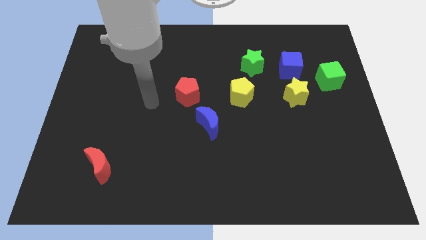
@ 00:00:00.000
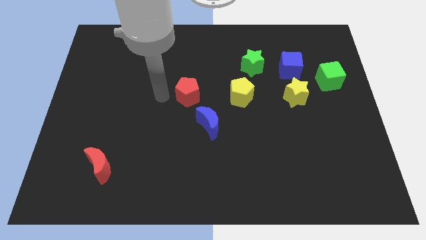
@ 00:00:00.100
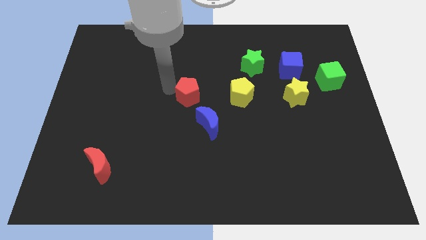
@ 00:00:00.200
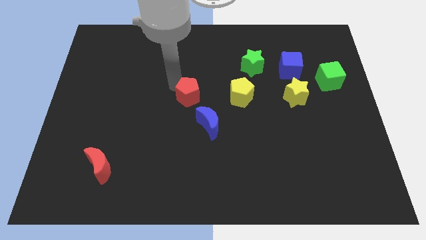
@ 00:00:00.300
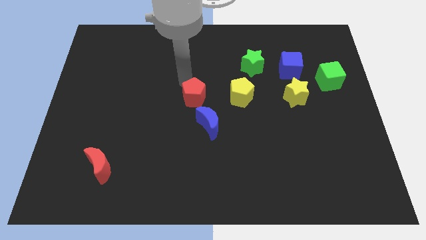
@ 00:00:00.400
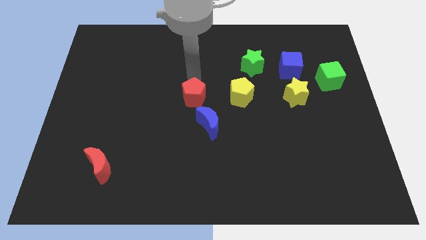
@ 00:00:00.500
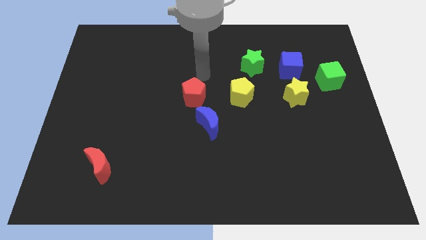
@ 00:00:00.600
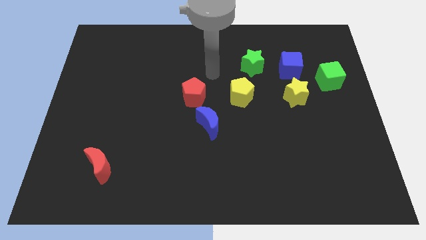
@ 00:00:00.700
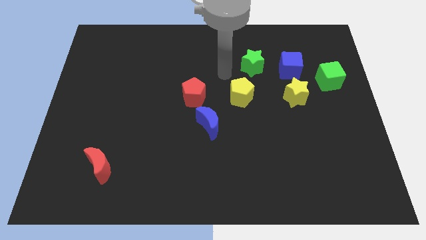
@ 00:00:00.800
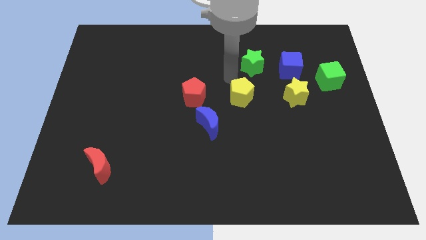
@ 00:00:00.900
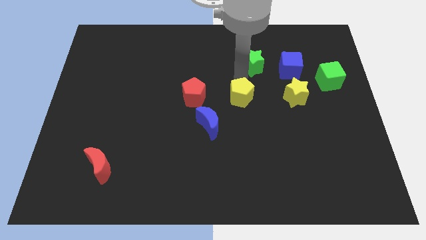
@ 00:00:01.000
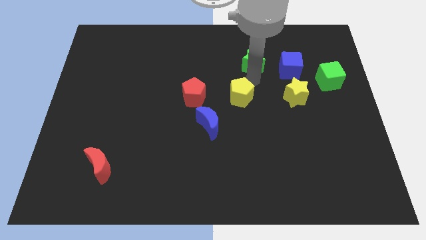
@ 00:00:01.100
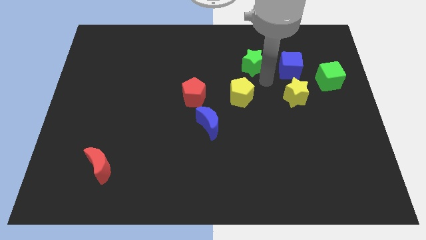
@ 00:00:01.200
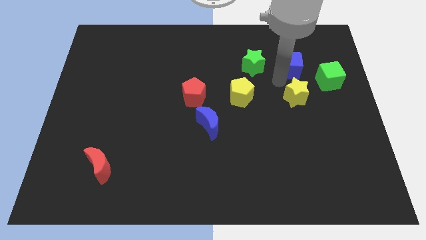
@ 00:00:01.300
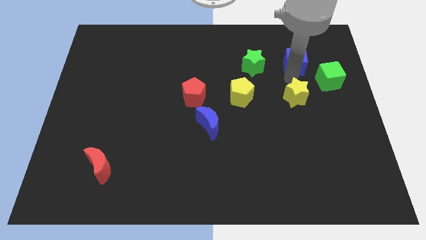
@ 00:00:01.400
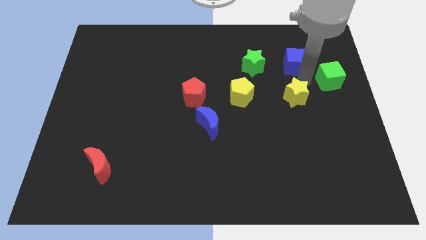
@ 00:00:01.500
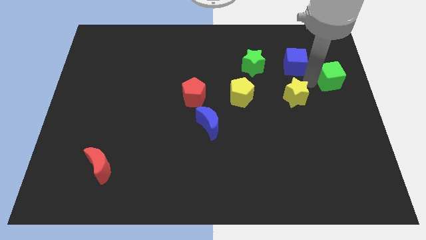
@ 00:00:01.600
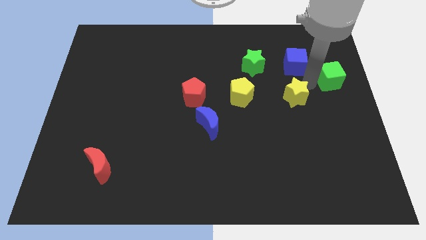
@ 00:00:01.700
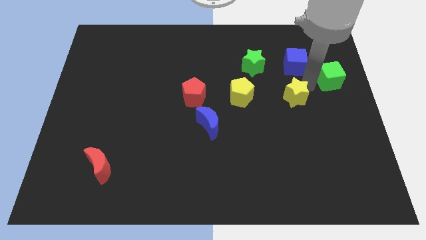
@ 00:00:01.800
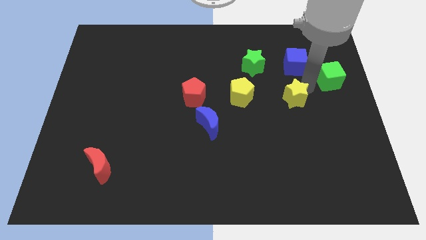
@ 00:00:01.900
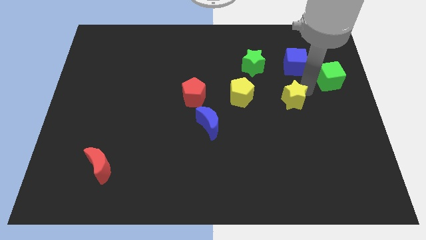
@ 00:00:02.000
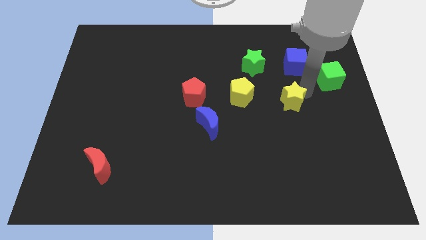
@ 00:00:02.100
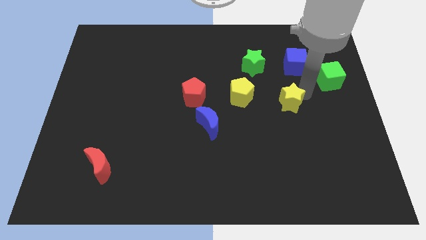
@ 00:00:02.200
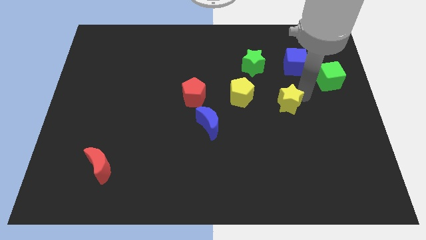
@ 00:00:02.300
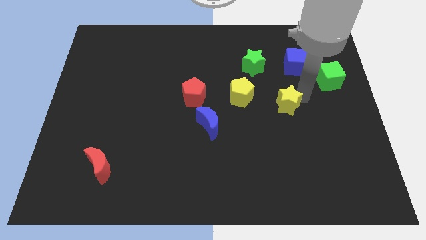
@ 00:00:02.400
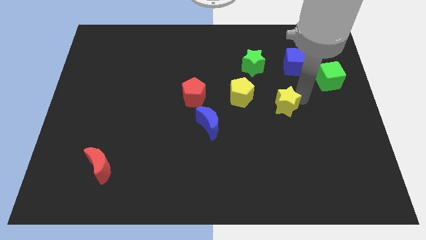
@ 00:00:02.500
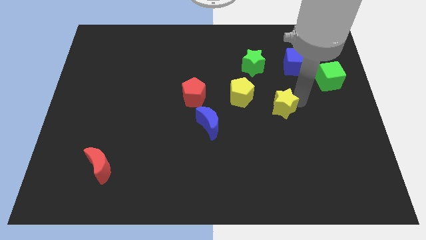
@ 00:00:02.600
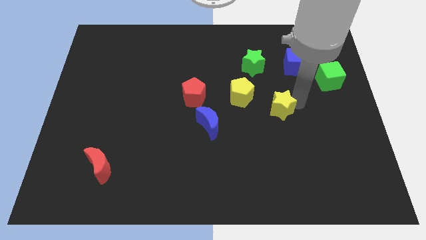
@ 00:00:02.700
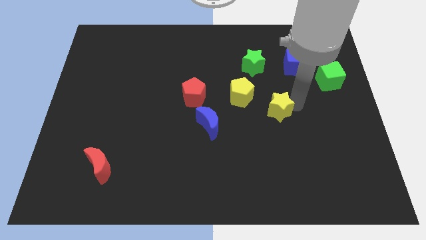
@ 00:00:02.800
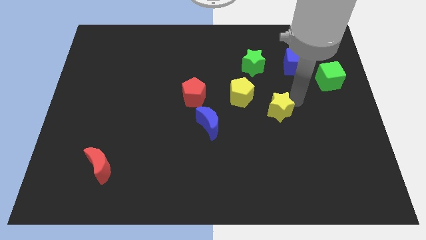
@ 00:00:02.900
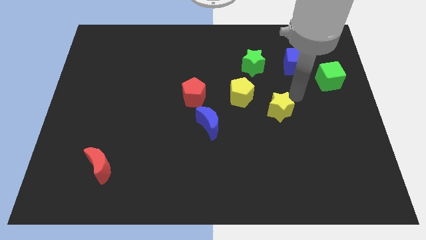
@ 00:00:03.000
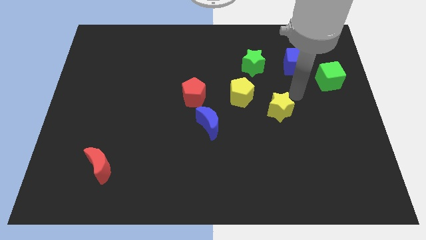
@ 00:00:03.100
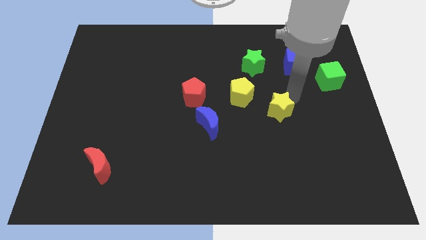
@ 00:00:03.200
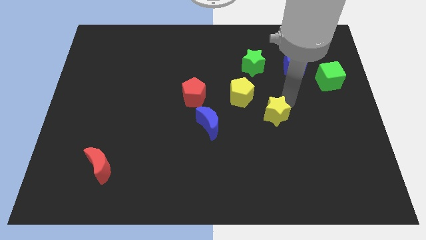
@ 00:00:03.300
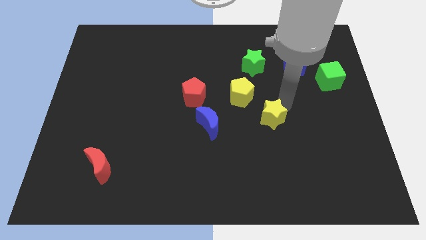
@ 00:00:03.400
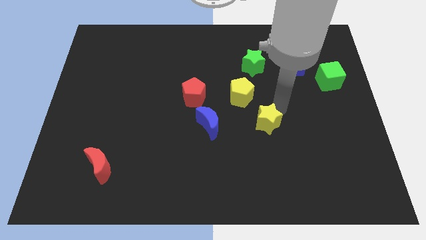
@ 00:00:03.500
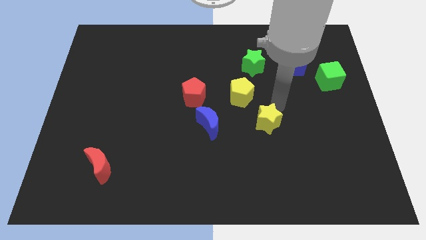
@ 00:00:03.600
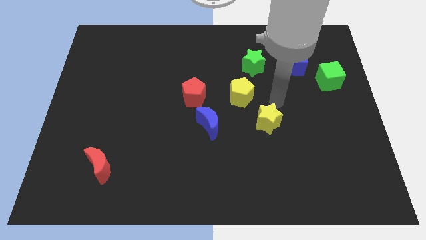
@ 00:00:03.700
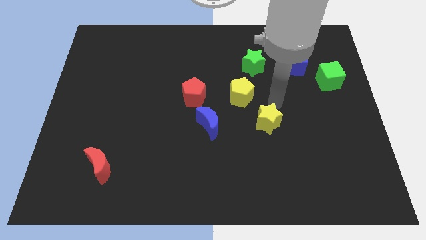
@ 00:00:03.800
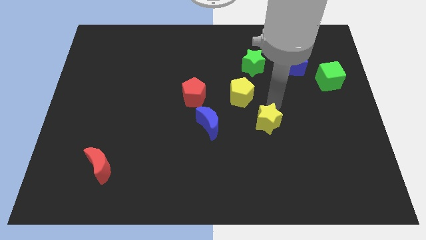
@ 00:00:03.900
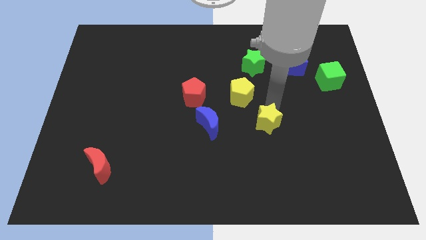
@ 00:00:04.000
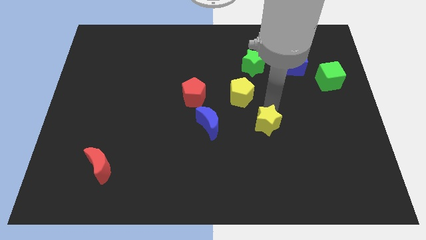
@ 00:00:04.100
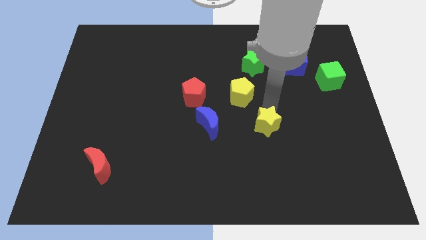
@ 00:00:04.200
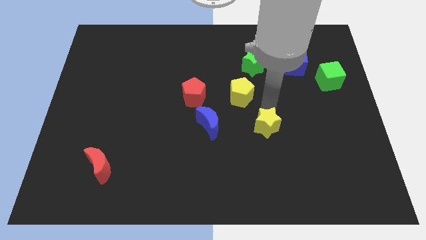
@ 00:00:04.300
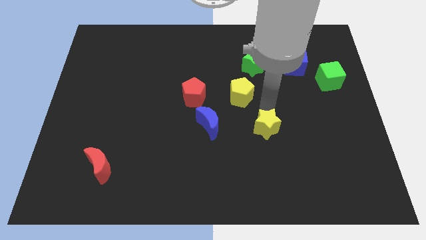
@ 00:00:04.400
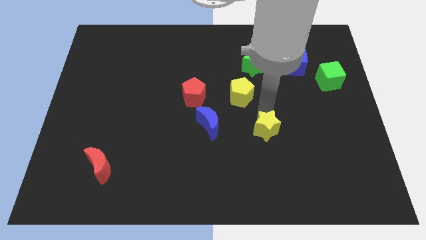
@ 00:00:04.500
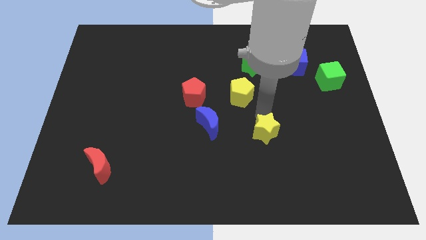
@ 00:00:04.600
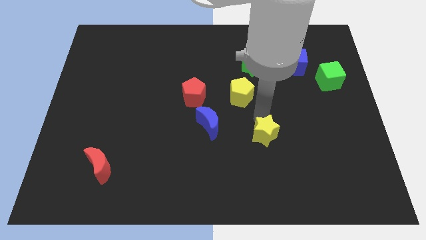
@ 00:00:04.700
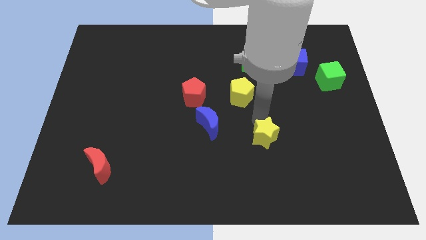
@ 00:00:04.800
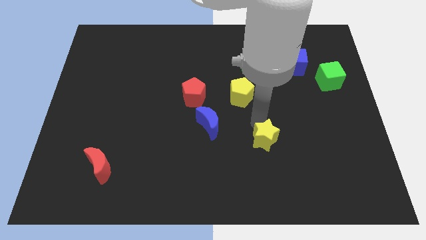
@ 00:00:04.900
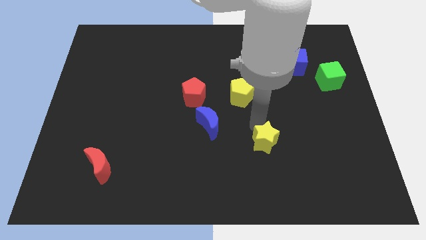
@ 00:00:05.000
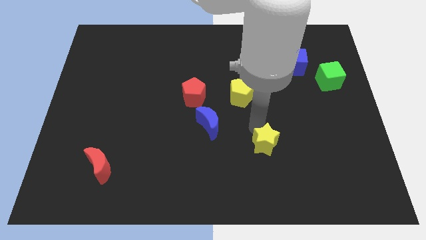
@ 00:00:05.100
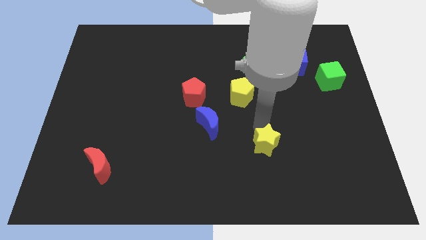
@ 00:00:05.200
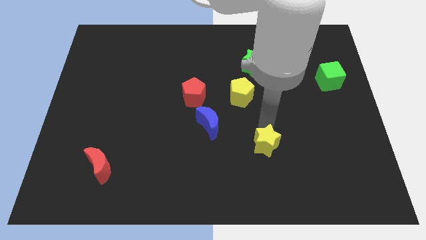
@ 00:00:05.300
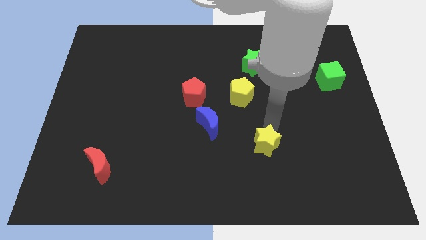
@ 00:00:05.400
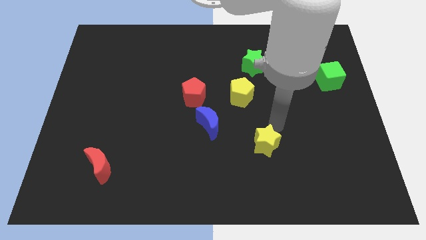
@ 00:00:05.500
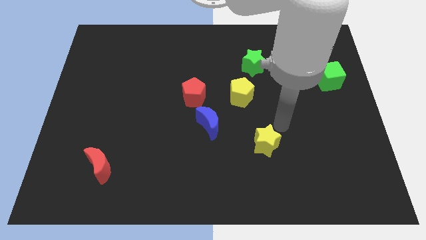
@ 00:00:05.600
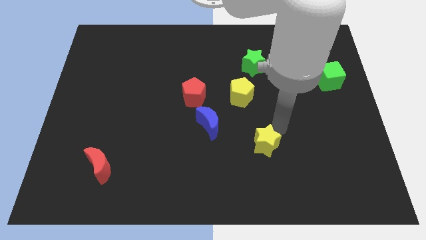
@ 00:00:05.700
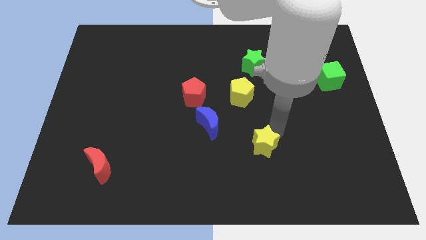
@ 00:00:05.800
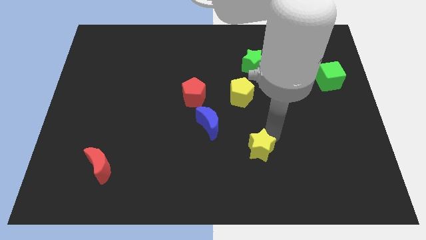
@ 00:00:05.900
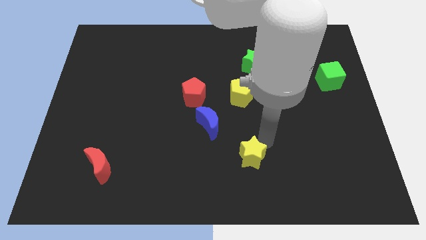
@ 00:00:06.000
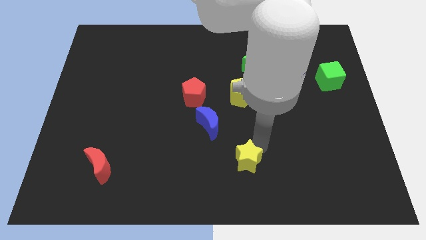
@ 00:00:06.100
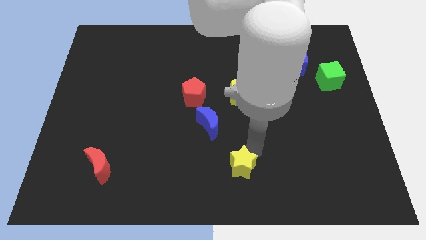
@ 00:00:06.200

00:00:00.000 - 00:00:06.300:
put the yellow star to the bottom side

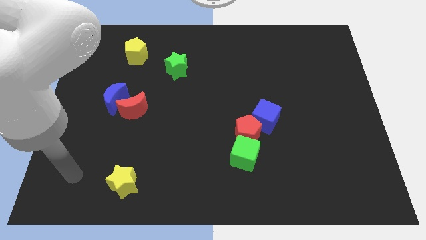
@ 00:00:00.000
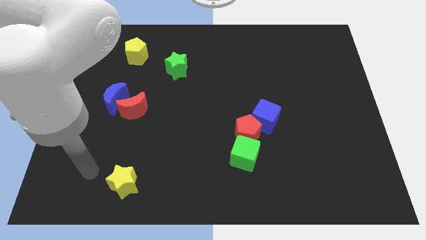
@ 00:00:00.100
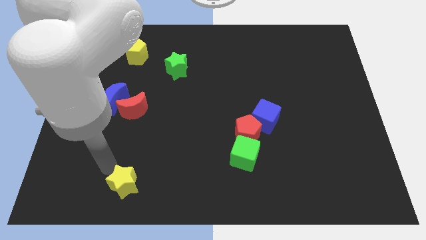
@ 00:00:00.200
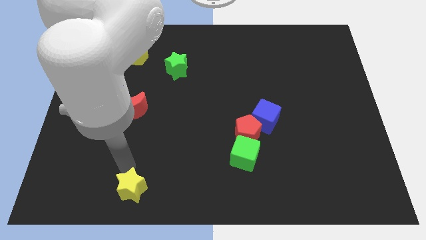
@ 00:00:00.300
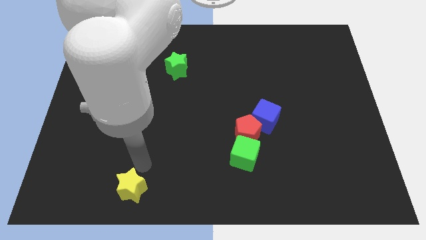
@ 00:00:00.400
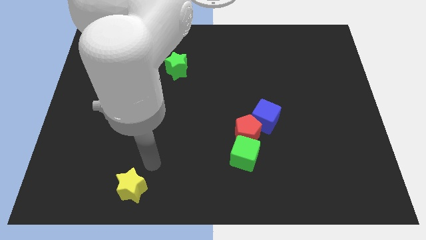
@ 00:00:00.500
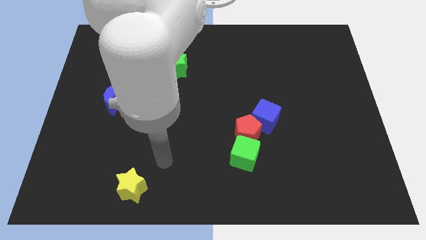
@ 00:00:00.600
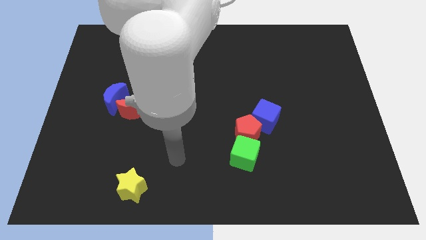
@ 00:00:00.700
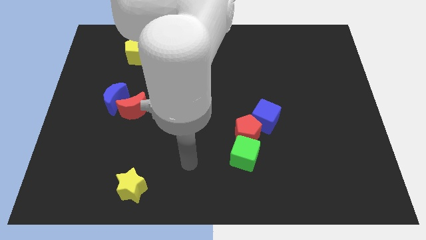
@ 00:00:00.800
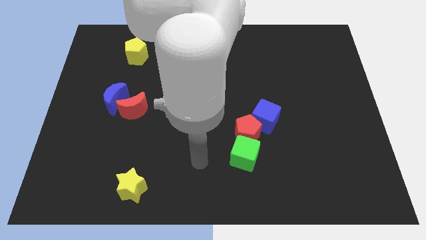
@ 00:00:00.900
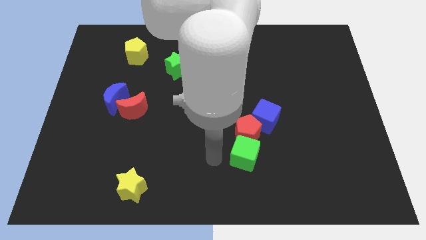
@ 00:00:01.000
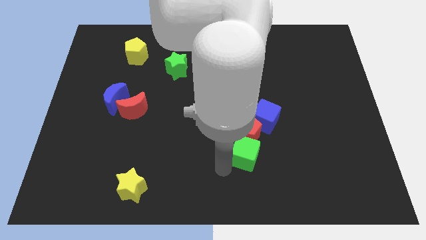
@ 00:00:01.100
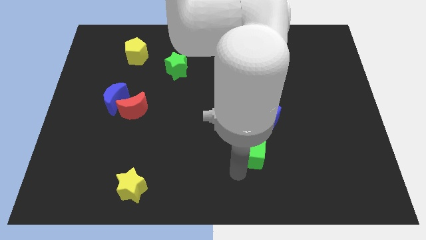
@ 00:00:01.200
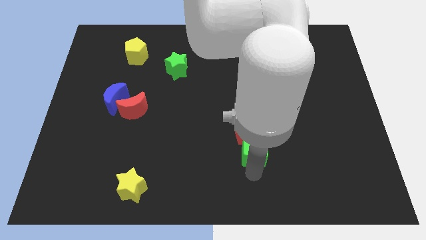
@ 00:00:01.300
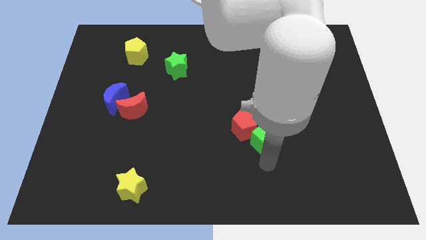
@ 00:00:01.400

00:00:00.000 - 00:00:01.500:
move the blue cube to the middle of the board
